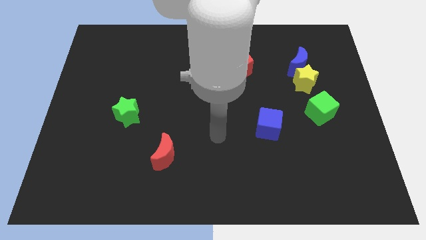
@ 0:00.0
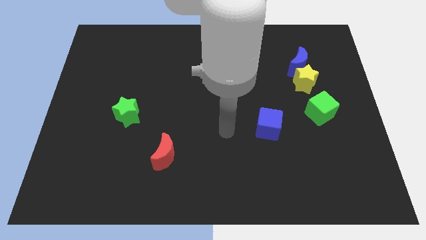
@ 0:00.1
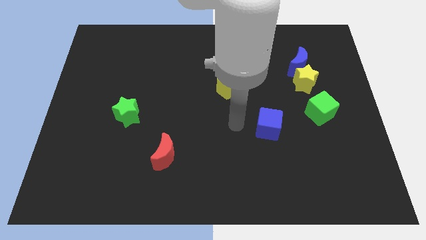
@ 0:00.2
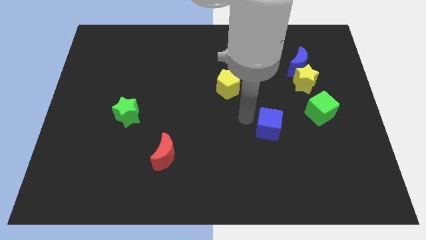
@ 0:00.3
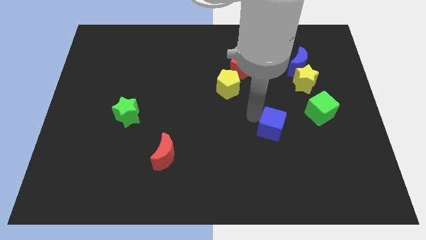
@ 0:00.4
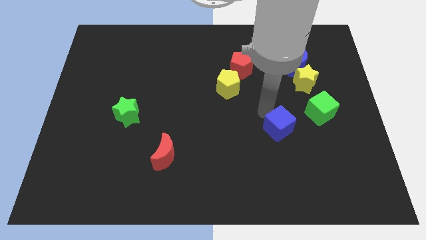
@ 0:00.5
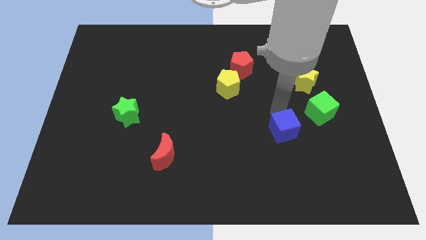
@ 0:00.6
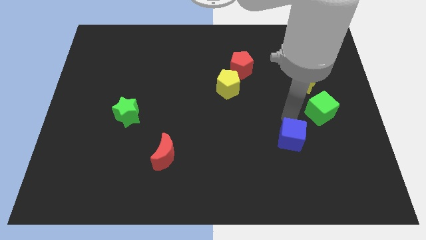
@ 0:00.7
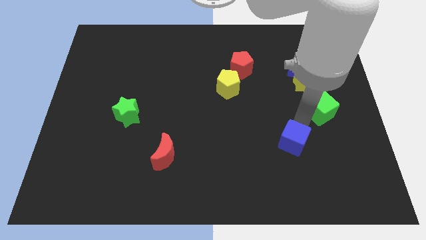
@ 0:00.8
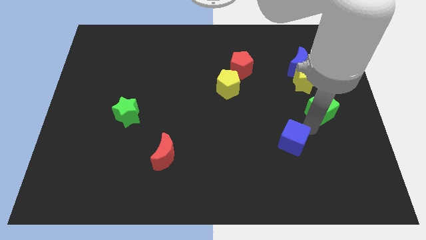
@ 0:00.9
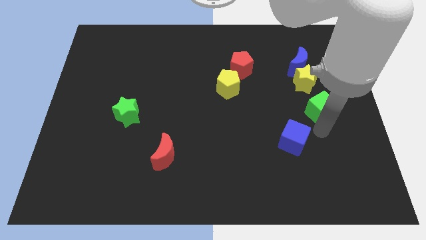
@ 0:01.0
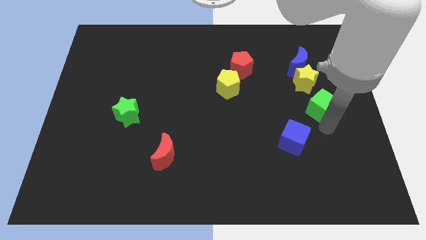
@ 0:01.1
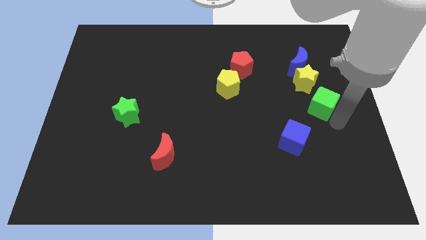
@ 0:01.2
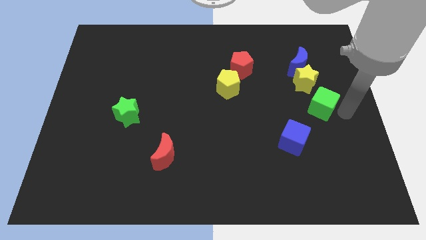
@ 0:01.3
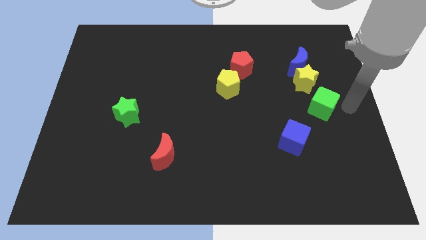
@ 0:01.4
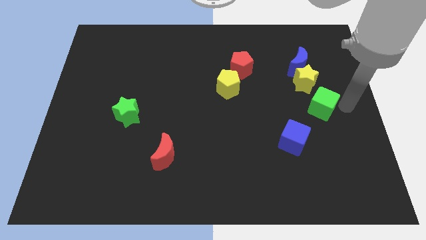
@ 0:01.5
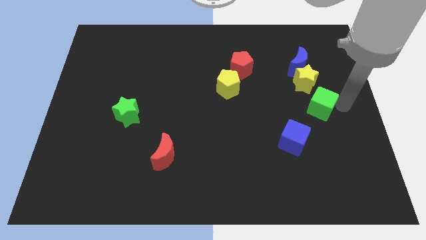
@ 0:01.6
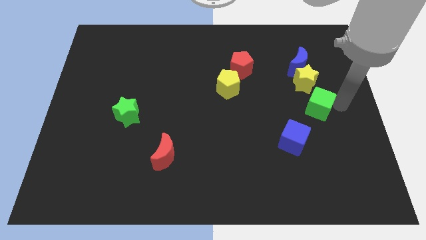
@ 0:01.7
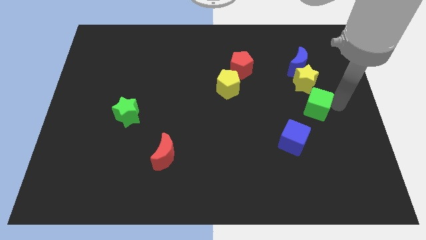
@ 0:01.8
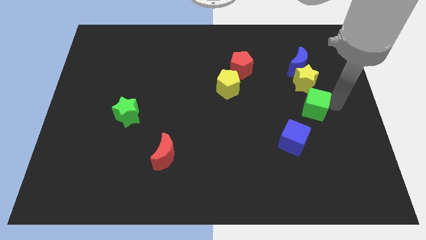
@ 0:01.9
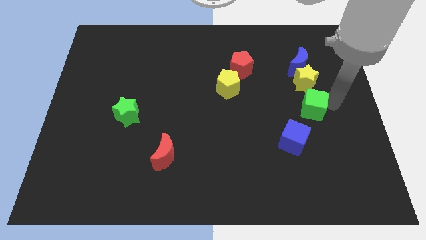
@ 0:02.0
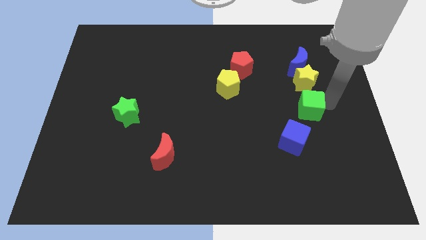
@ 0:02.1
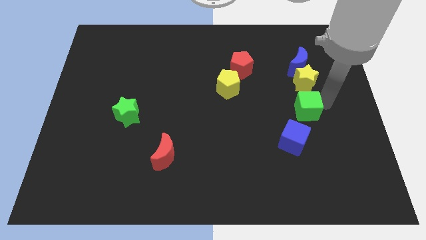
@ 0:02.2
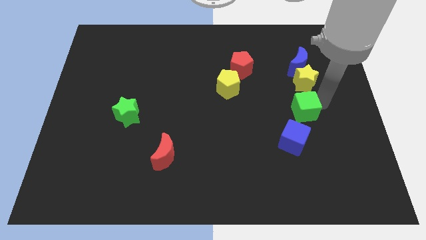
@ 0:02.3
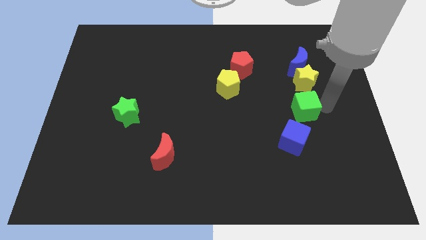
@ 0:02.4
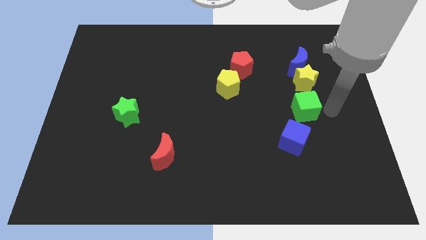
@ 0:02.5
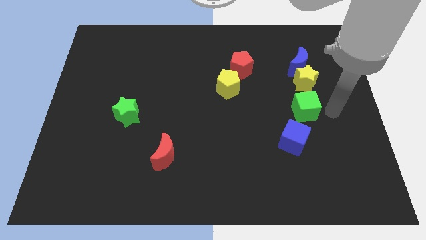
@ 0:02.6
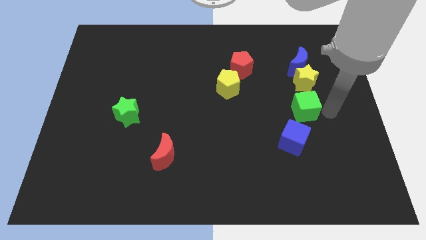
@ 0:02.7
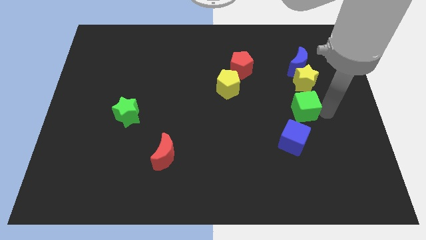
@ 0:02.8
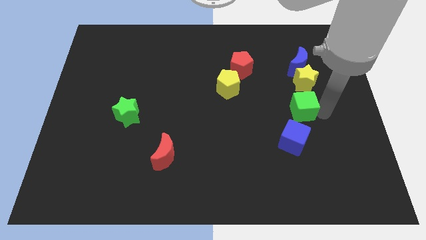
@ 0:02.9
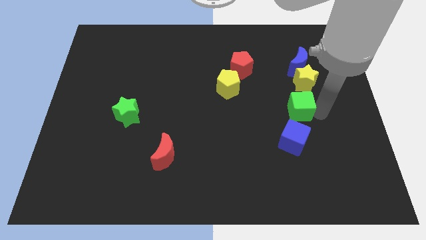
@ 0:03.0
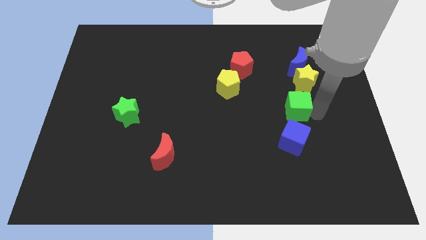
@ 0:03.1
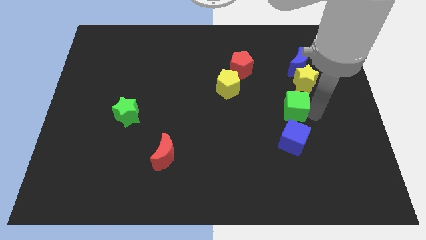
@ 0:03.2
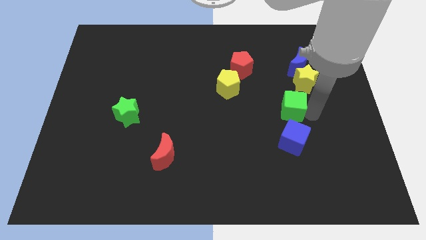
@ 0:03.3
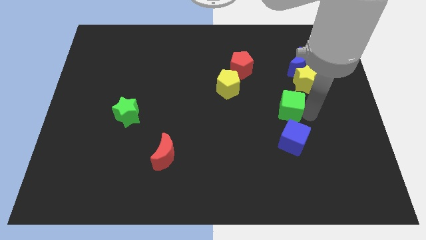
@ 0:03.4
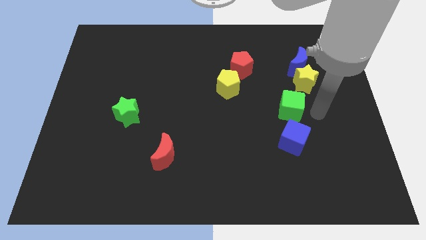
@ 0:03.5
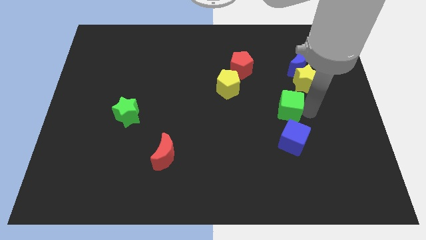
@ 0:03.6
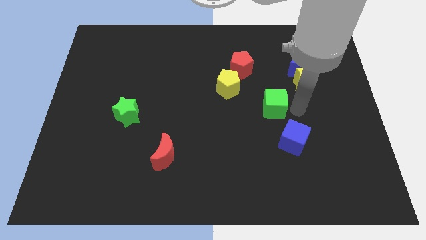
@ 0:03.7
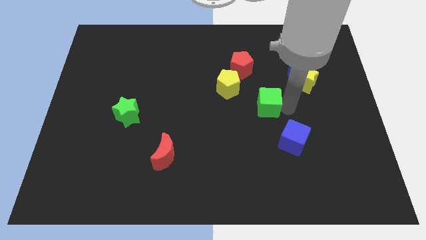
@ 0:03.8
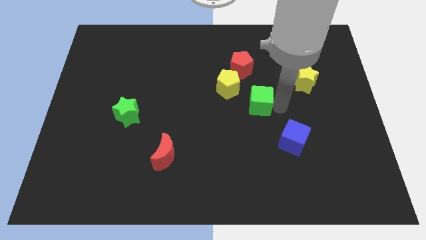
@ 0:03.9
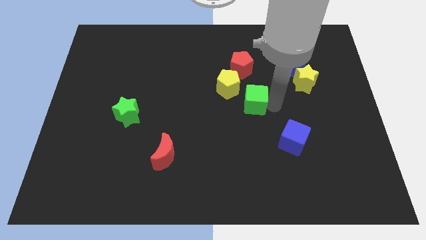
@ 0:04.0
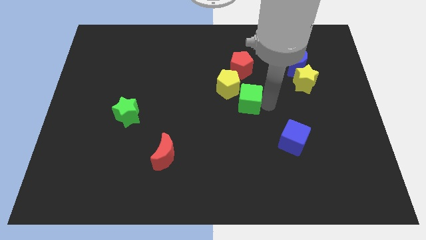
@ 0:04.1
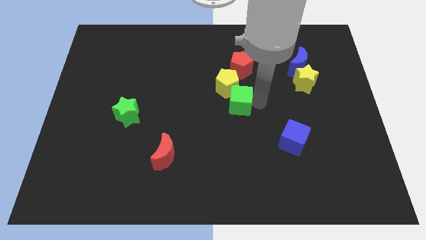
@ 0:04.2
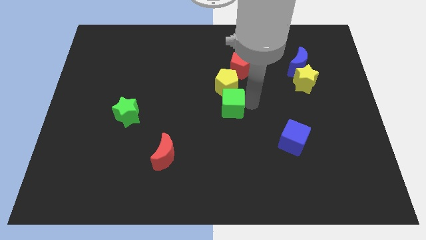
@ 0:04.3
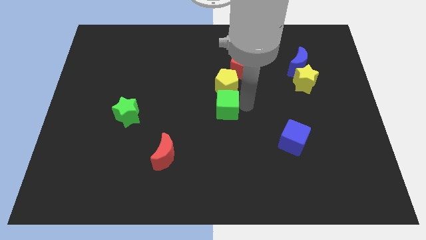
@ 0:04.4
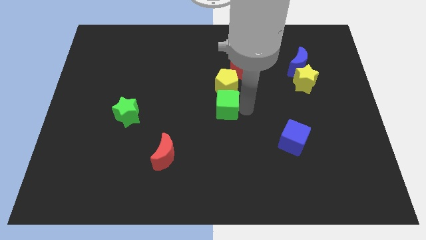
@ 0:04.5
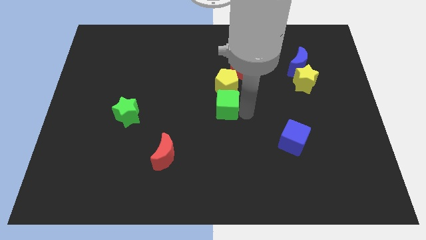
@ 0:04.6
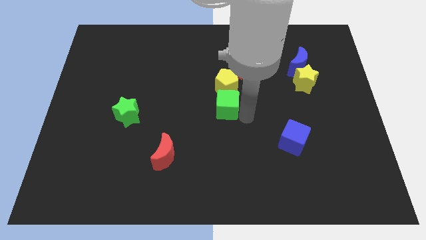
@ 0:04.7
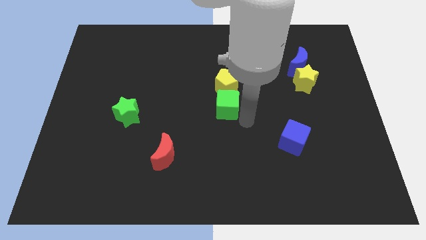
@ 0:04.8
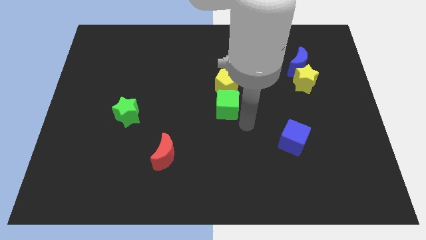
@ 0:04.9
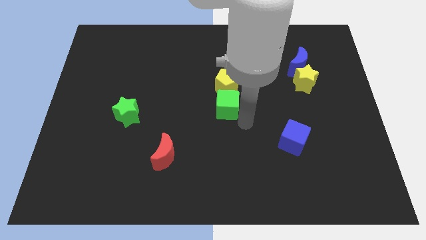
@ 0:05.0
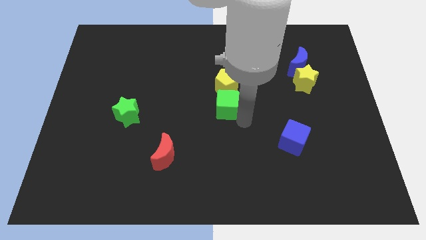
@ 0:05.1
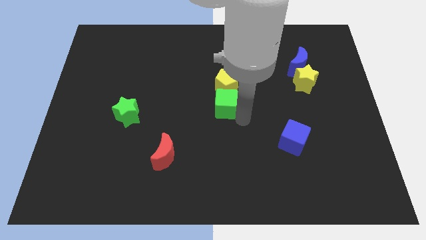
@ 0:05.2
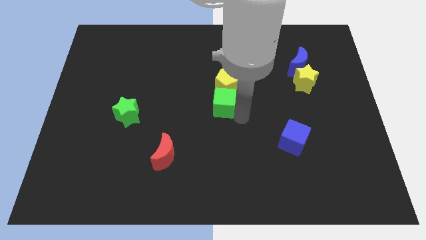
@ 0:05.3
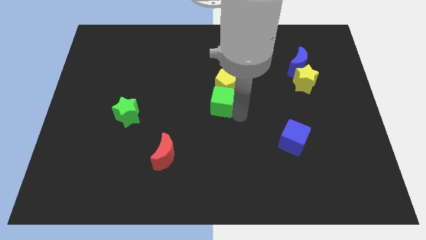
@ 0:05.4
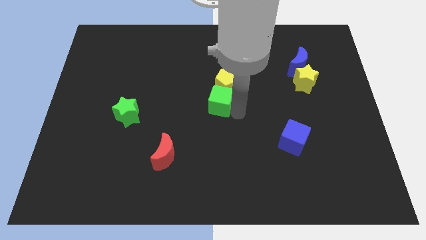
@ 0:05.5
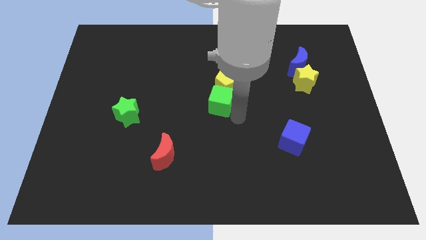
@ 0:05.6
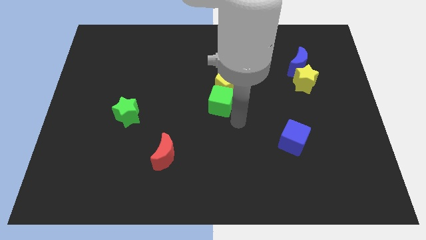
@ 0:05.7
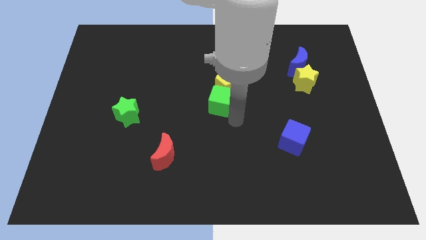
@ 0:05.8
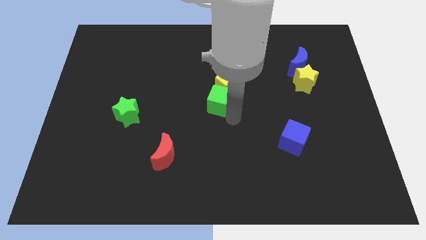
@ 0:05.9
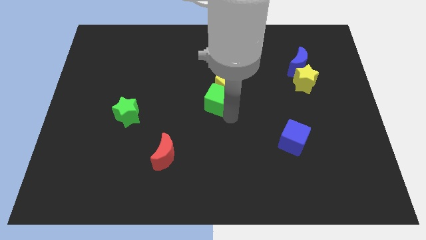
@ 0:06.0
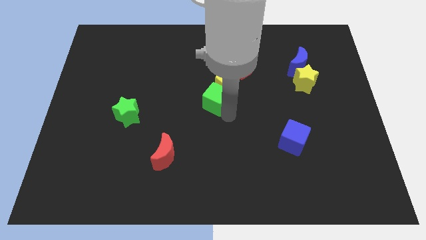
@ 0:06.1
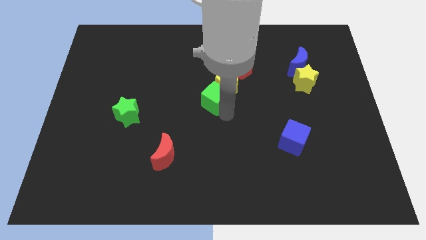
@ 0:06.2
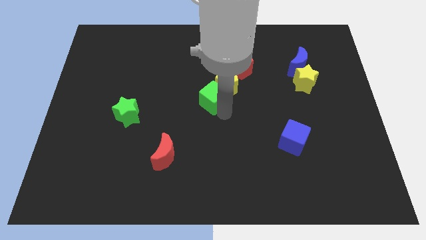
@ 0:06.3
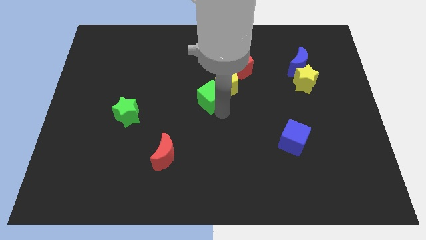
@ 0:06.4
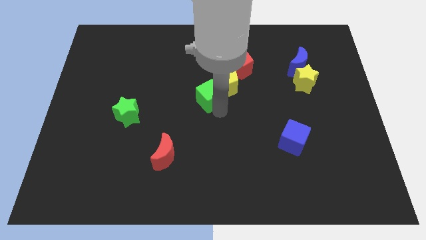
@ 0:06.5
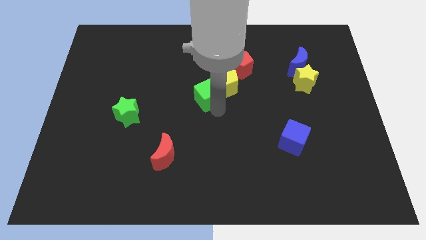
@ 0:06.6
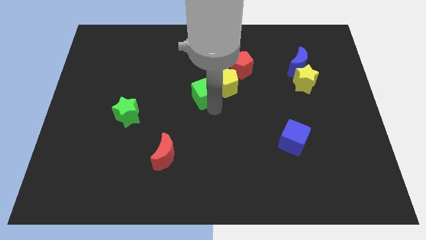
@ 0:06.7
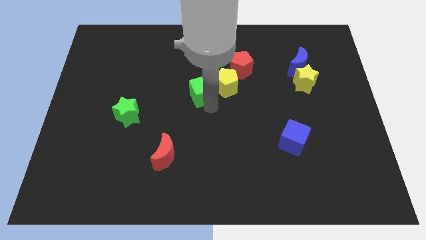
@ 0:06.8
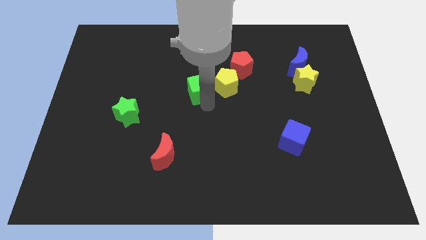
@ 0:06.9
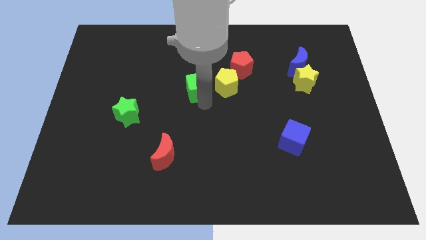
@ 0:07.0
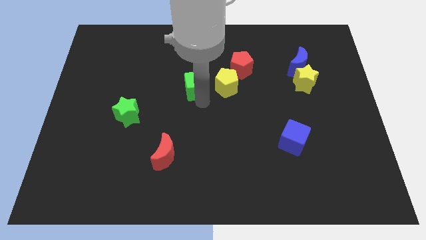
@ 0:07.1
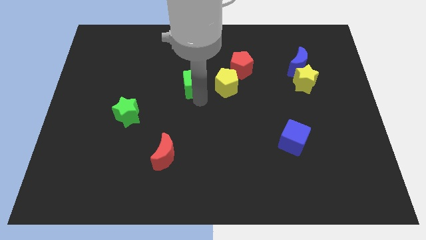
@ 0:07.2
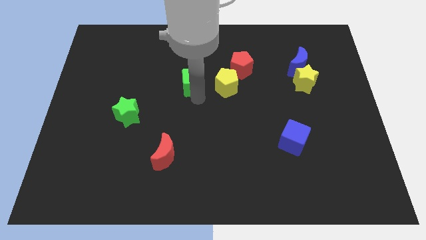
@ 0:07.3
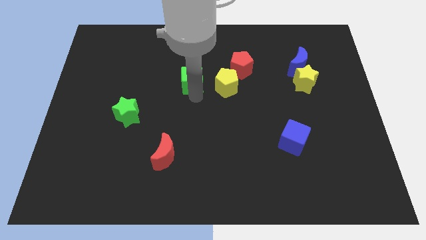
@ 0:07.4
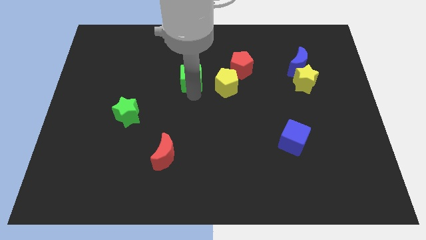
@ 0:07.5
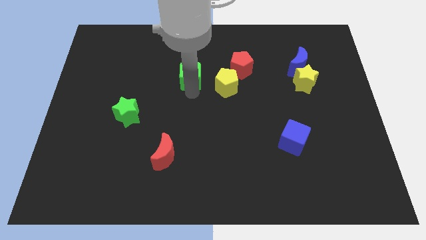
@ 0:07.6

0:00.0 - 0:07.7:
put the green cube to the top left of the yellow pentagon
